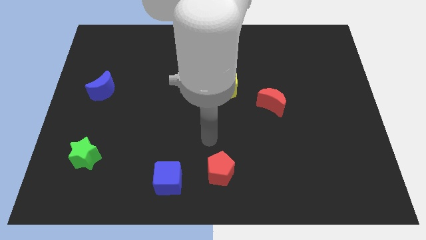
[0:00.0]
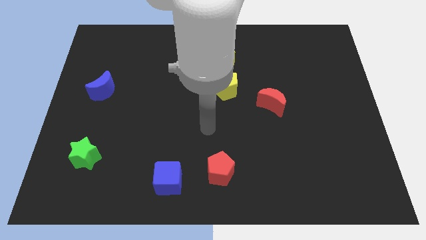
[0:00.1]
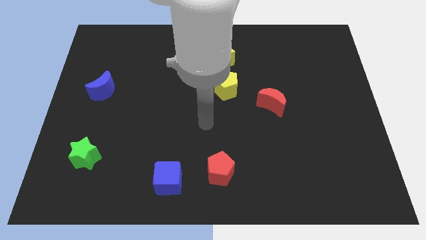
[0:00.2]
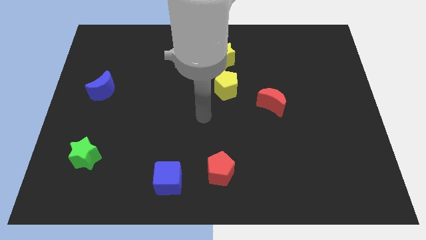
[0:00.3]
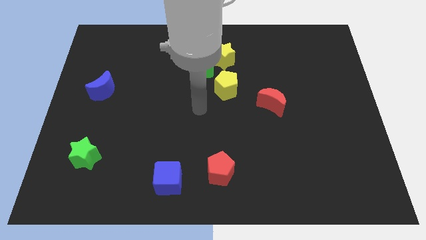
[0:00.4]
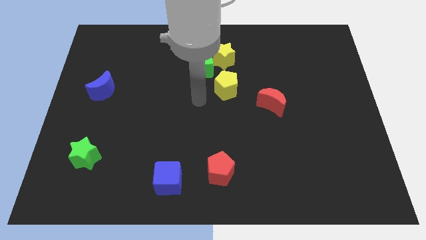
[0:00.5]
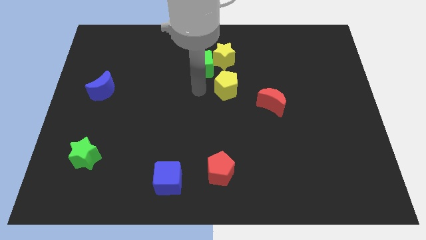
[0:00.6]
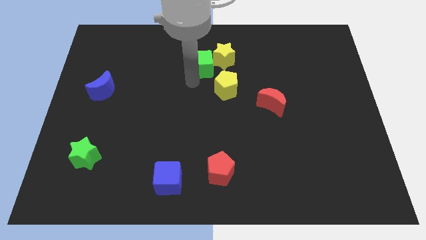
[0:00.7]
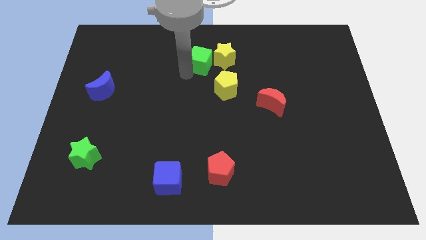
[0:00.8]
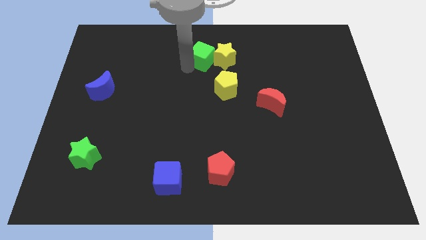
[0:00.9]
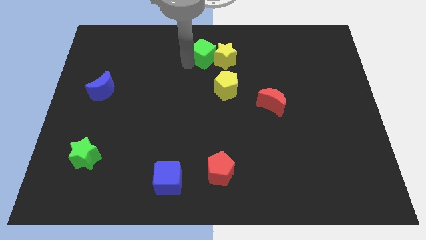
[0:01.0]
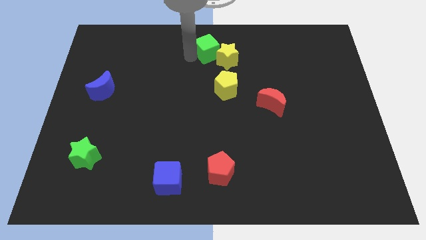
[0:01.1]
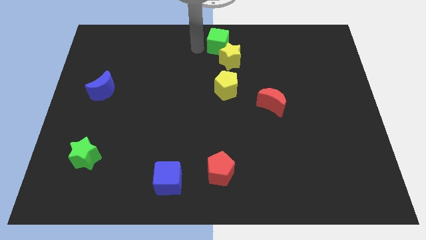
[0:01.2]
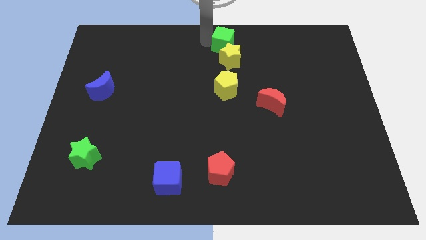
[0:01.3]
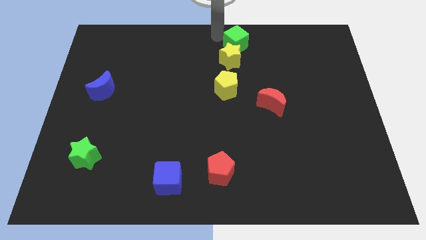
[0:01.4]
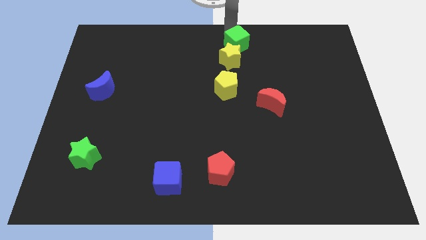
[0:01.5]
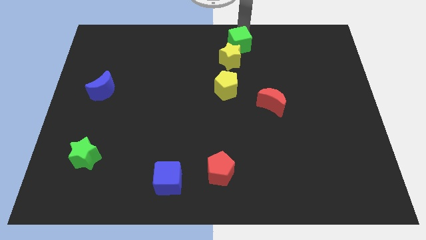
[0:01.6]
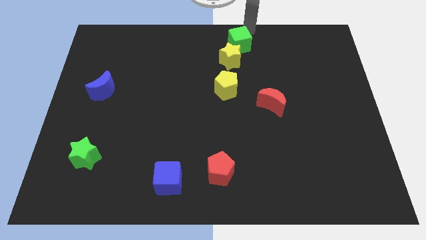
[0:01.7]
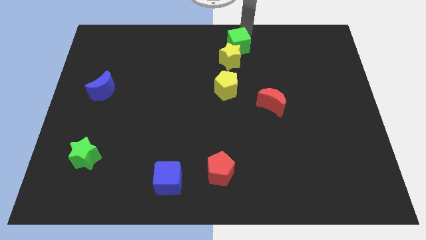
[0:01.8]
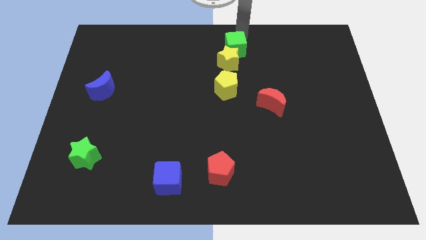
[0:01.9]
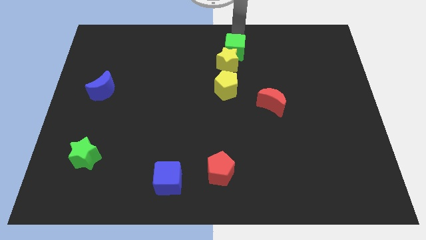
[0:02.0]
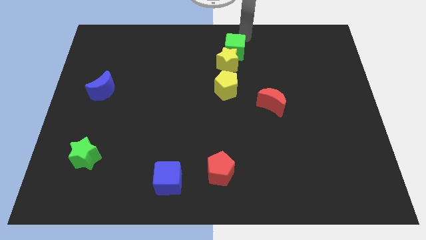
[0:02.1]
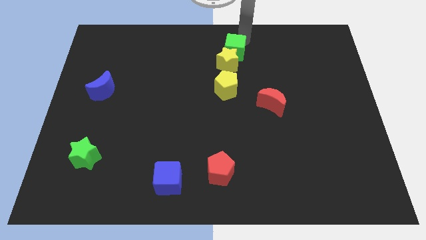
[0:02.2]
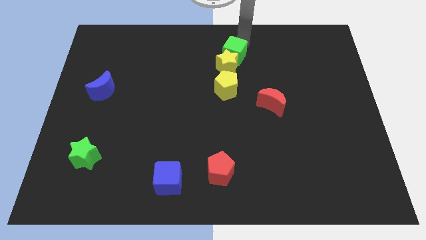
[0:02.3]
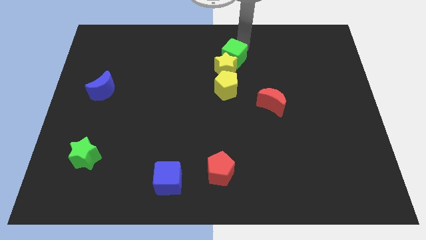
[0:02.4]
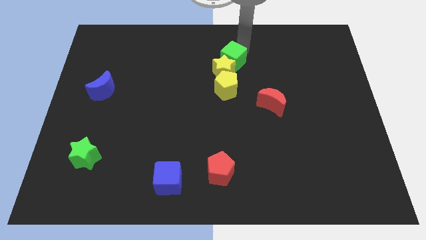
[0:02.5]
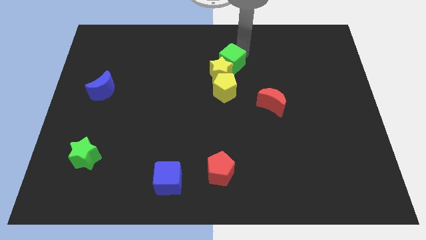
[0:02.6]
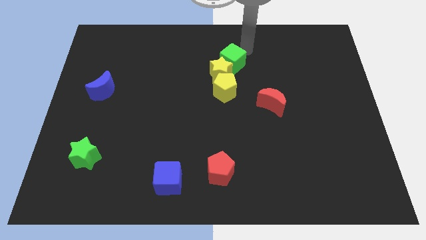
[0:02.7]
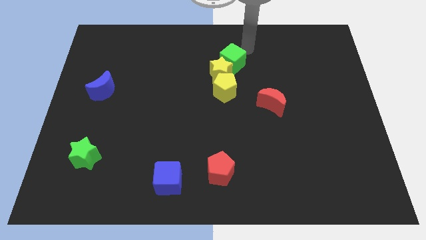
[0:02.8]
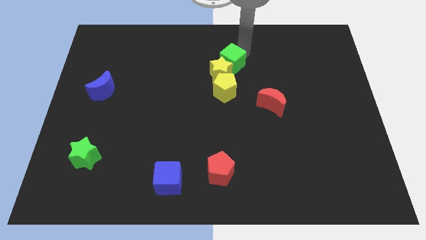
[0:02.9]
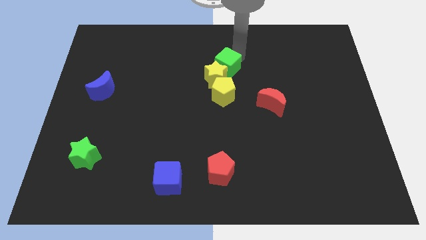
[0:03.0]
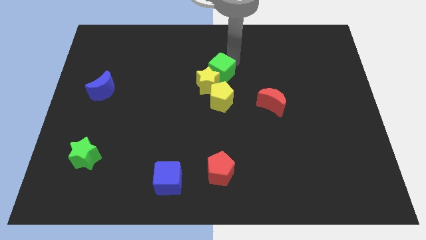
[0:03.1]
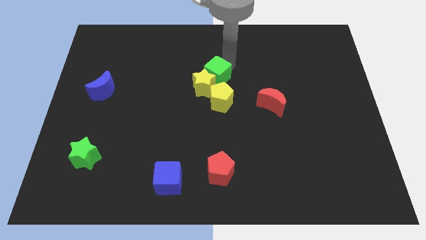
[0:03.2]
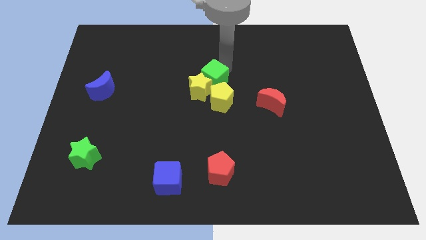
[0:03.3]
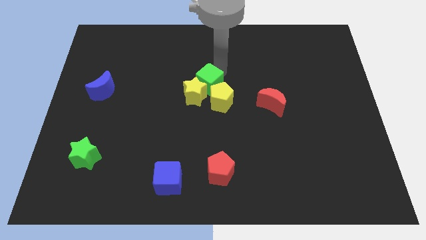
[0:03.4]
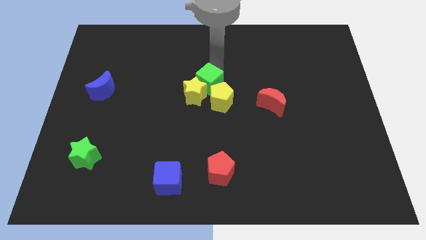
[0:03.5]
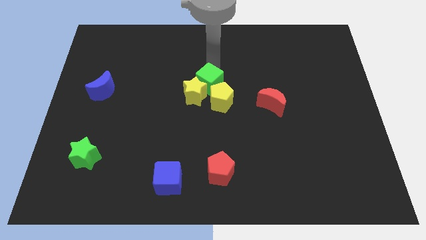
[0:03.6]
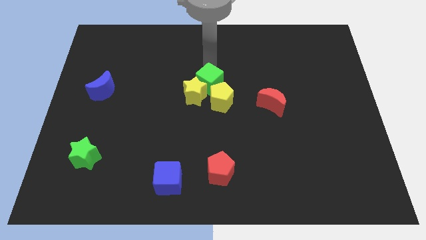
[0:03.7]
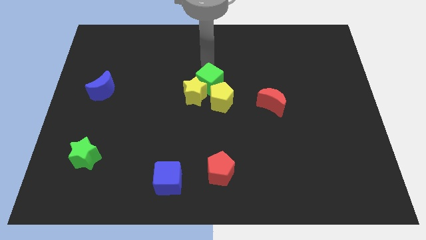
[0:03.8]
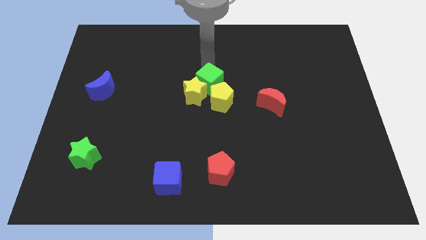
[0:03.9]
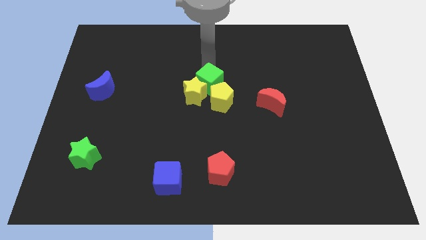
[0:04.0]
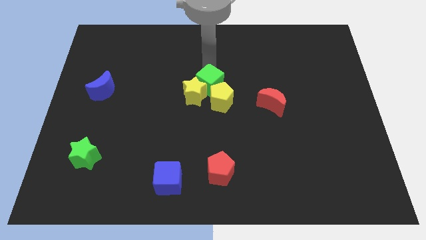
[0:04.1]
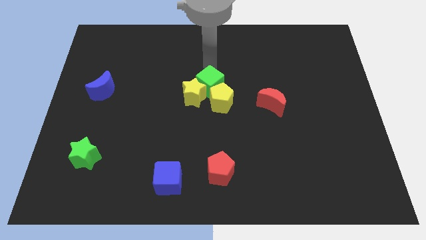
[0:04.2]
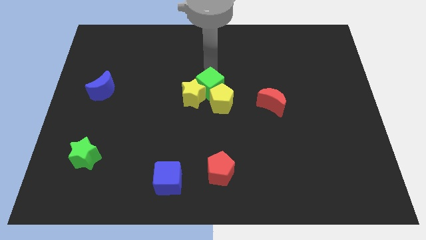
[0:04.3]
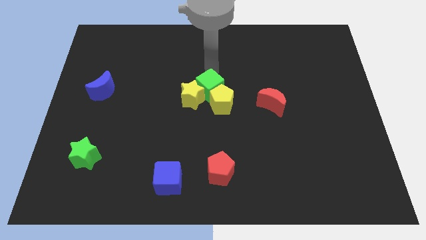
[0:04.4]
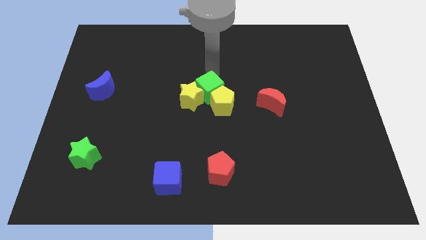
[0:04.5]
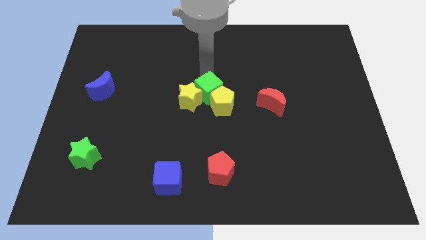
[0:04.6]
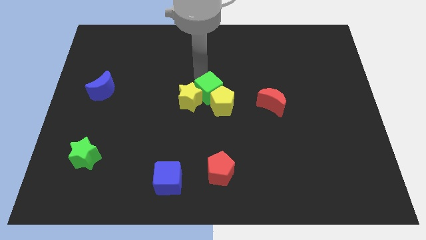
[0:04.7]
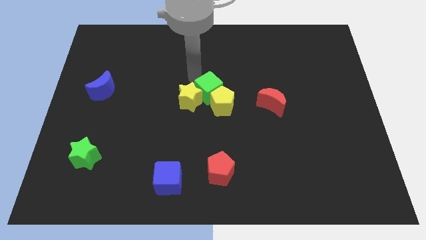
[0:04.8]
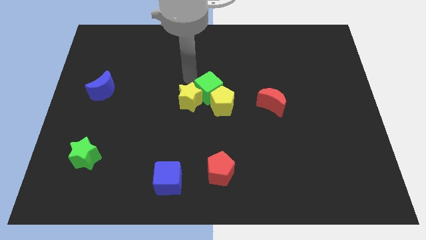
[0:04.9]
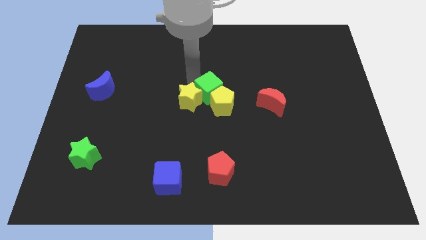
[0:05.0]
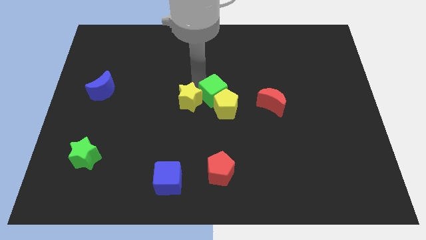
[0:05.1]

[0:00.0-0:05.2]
slide the green cube to the left side of the red moon

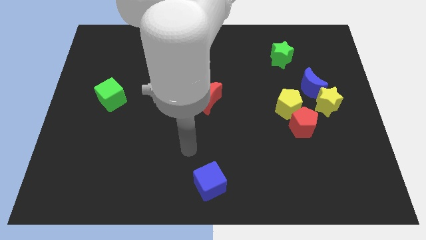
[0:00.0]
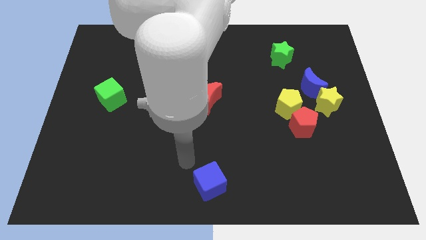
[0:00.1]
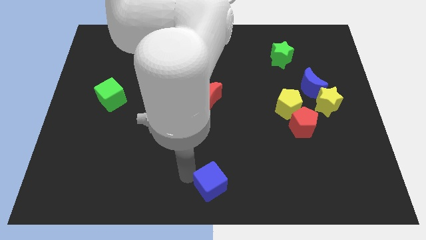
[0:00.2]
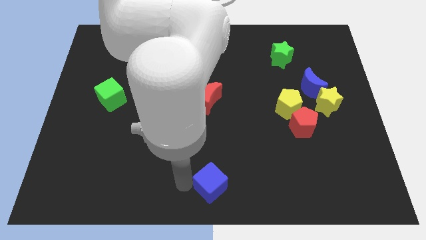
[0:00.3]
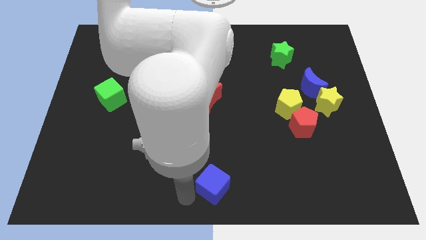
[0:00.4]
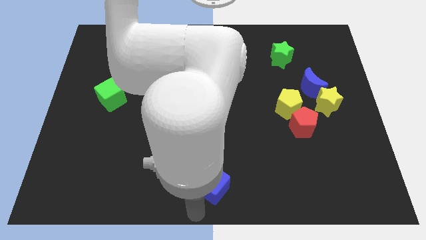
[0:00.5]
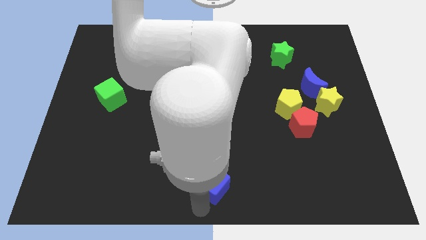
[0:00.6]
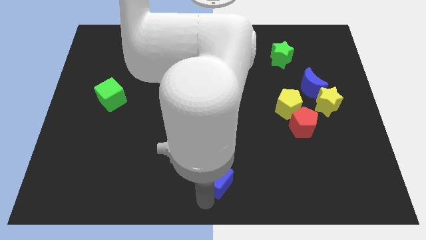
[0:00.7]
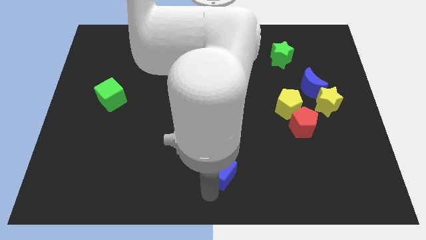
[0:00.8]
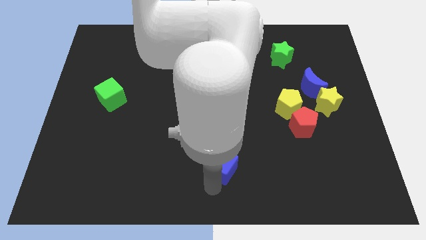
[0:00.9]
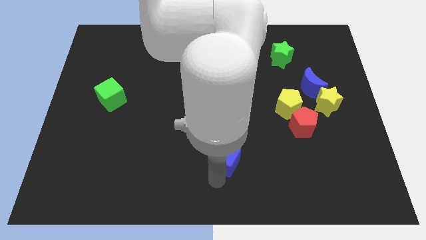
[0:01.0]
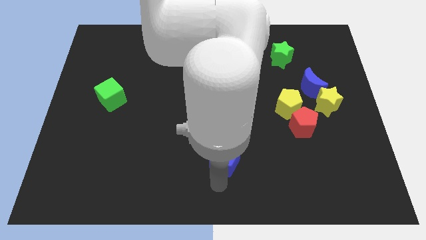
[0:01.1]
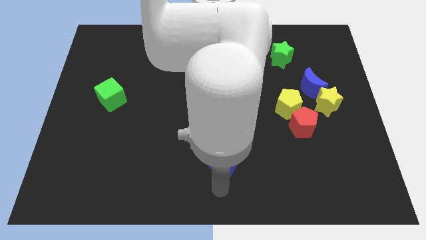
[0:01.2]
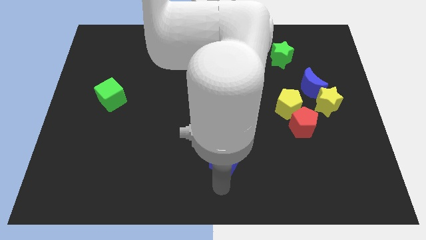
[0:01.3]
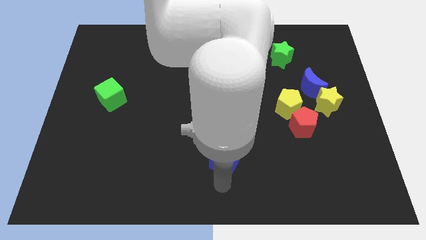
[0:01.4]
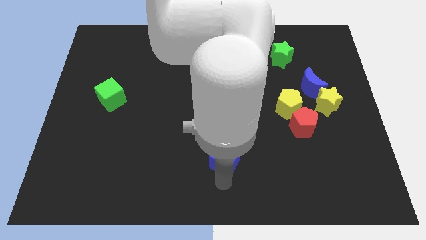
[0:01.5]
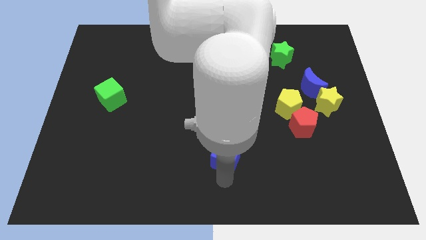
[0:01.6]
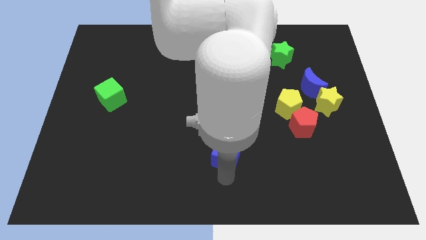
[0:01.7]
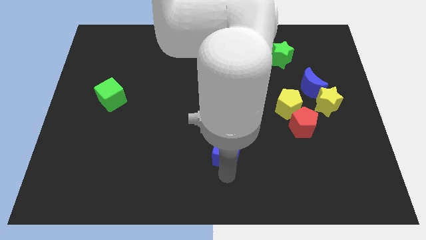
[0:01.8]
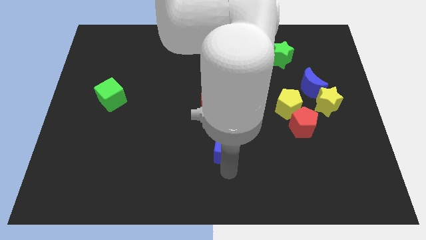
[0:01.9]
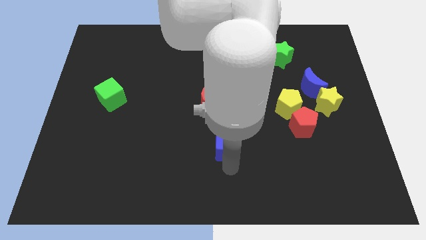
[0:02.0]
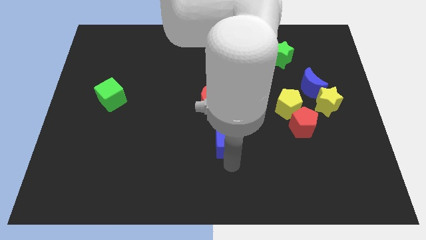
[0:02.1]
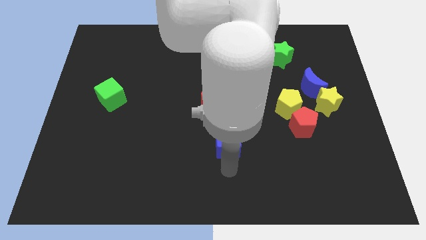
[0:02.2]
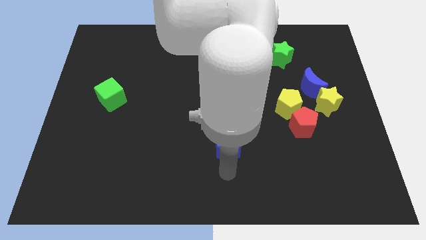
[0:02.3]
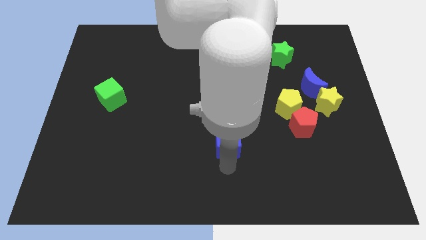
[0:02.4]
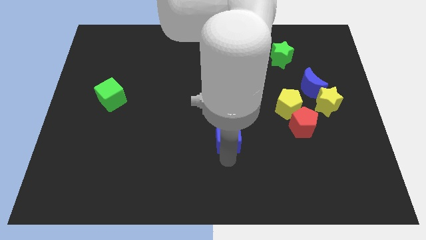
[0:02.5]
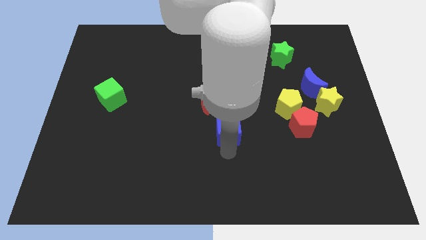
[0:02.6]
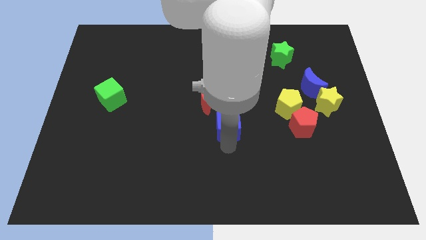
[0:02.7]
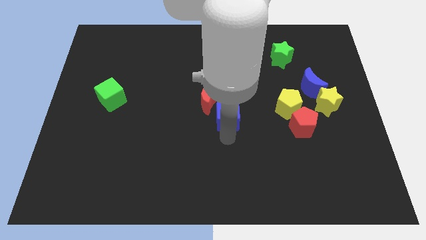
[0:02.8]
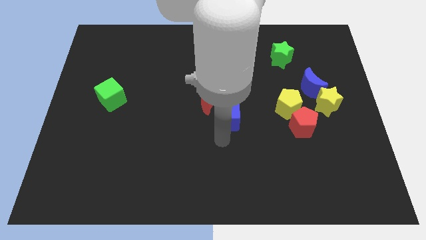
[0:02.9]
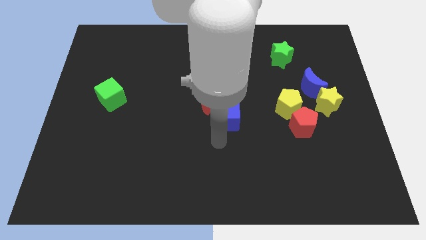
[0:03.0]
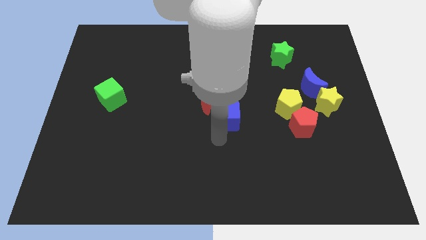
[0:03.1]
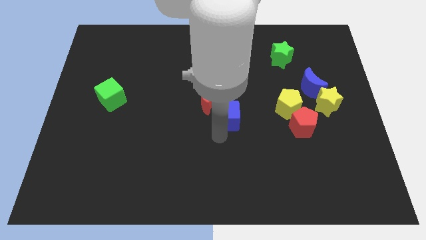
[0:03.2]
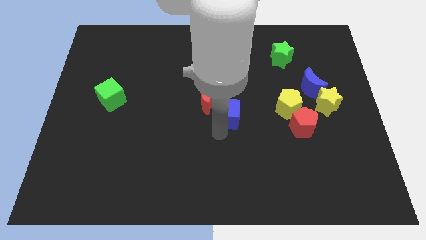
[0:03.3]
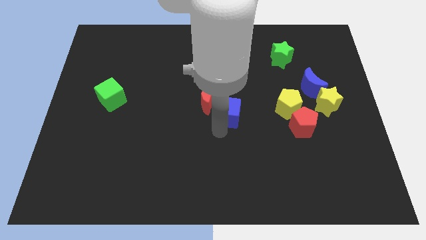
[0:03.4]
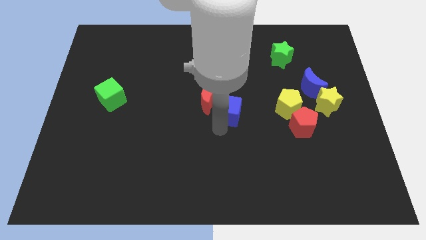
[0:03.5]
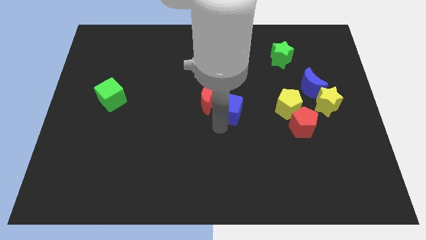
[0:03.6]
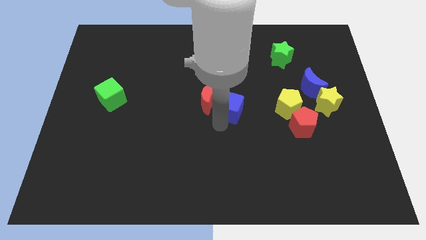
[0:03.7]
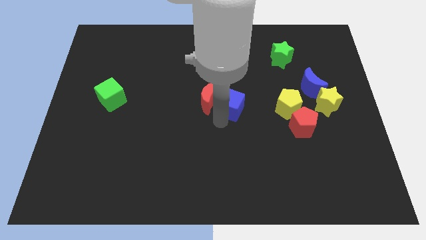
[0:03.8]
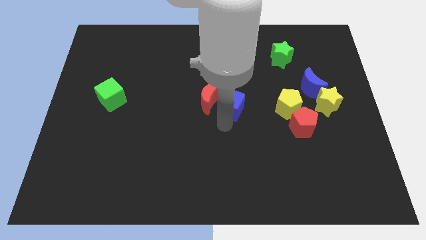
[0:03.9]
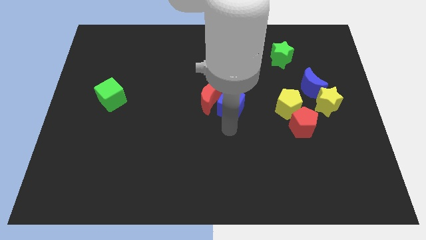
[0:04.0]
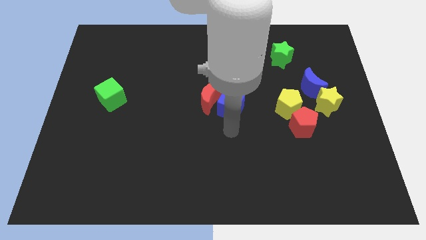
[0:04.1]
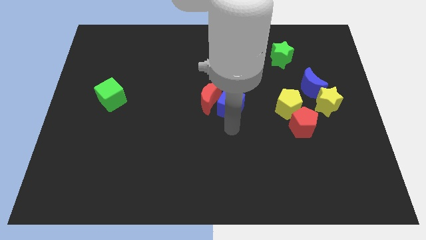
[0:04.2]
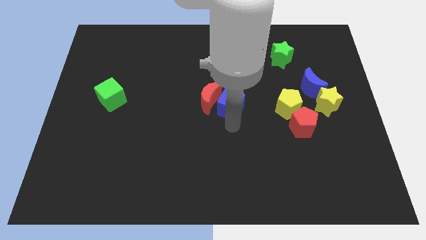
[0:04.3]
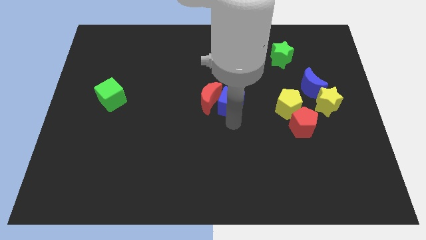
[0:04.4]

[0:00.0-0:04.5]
move the blue cube to the top right of the red moon
